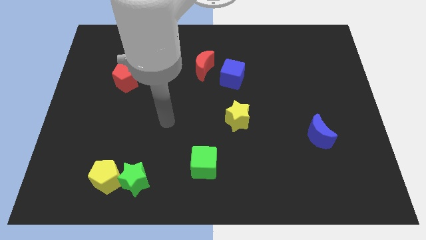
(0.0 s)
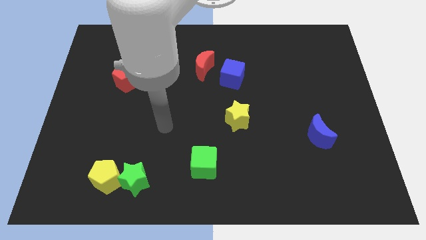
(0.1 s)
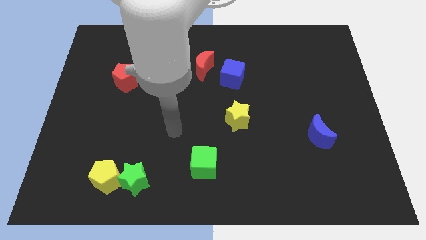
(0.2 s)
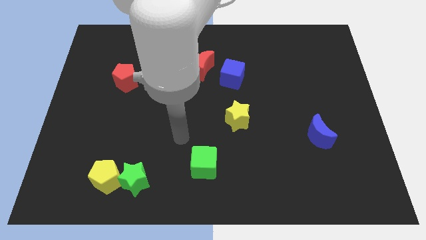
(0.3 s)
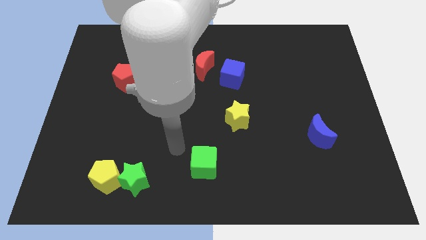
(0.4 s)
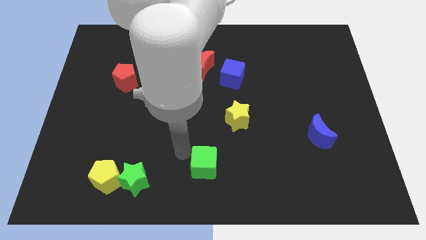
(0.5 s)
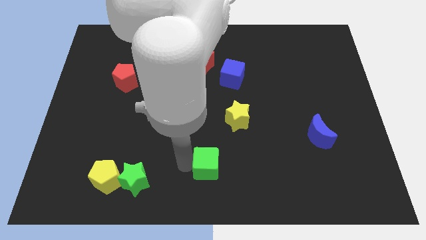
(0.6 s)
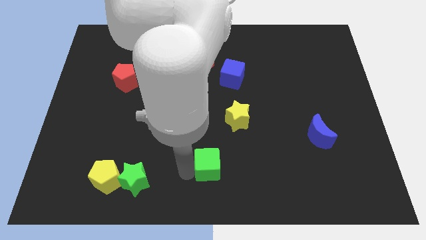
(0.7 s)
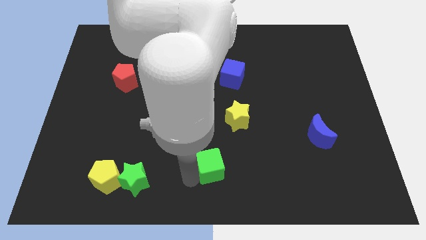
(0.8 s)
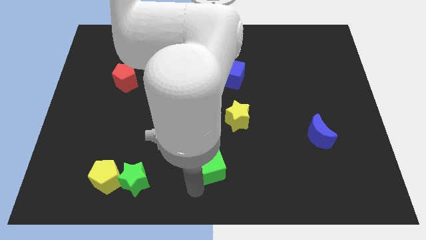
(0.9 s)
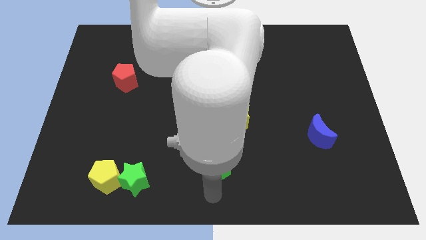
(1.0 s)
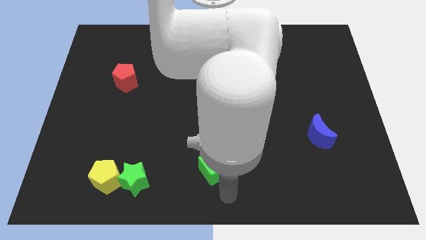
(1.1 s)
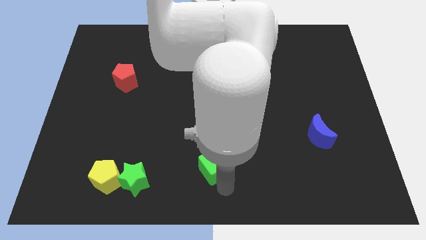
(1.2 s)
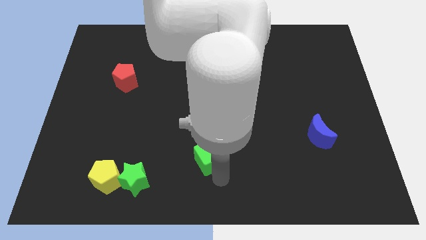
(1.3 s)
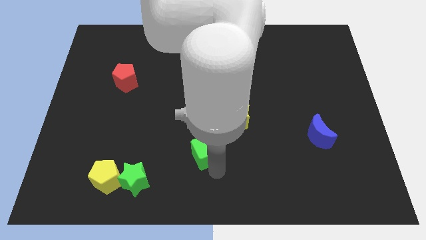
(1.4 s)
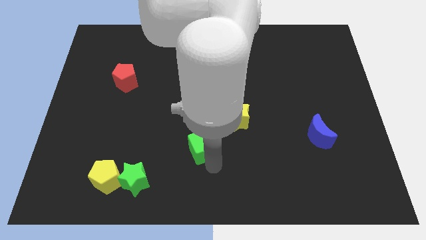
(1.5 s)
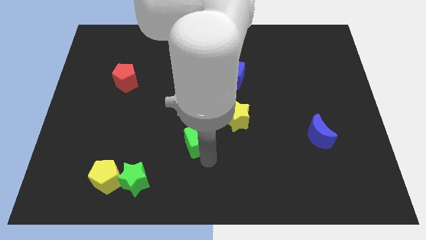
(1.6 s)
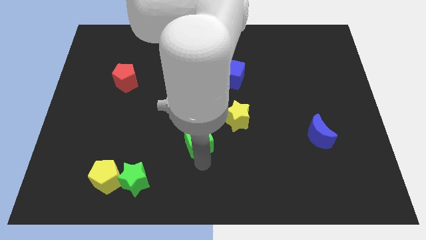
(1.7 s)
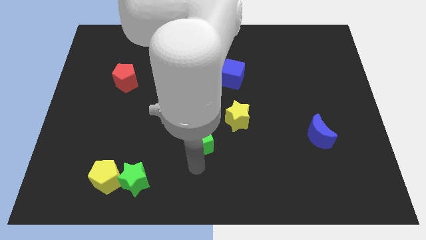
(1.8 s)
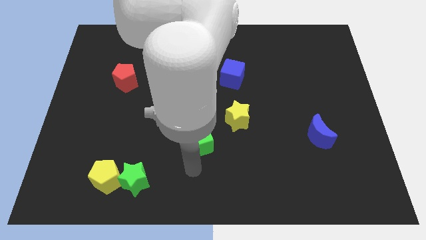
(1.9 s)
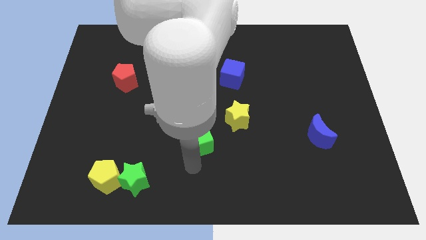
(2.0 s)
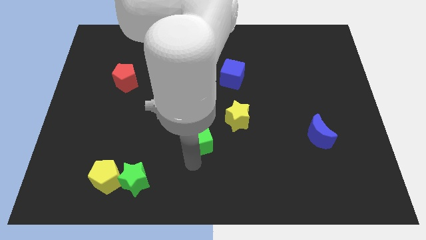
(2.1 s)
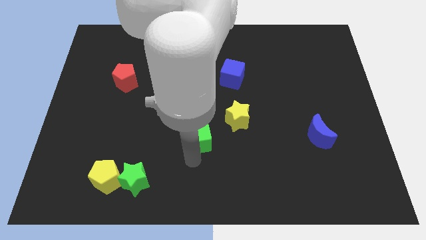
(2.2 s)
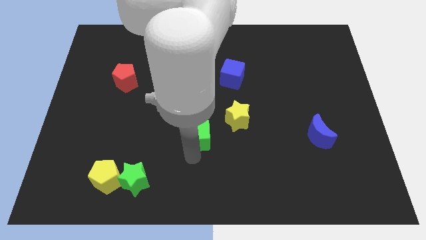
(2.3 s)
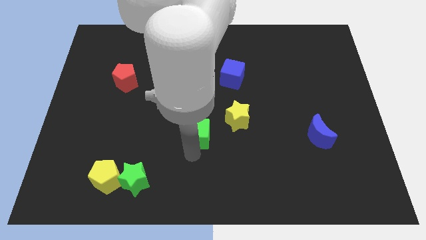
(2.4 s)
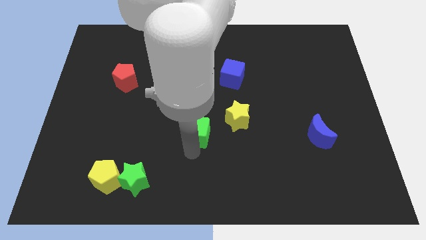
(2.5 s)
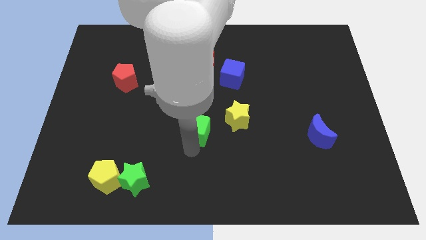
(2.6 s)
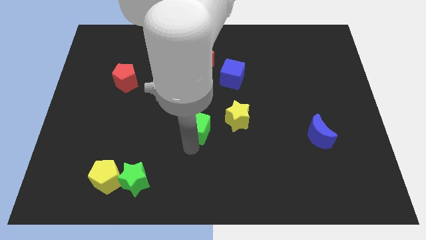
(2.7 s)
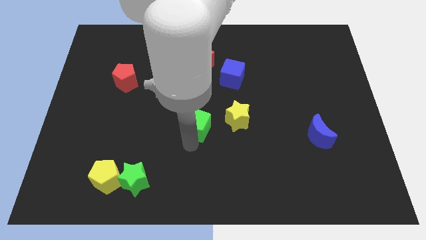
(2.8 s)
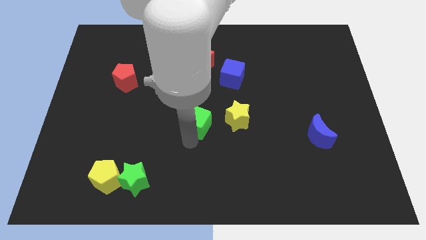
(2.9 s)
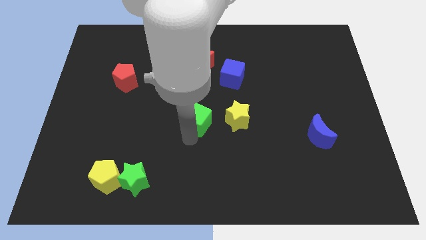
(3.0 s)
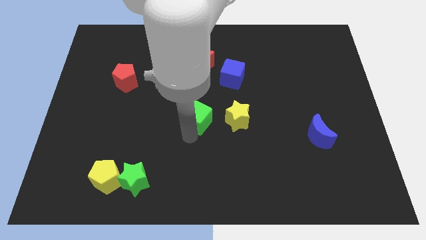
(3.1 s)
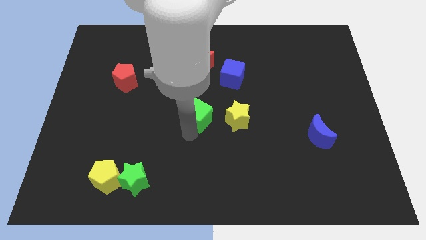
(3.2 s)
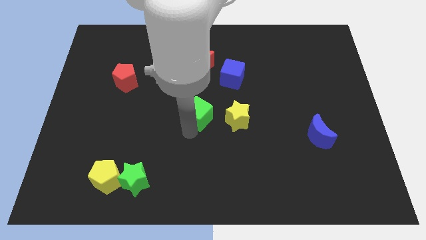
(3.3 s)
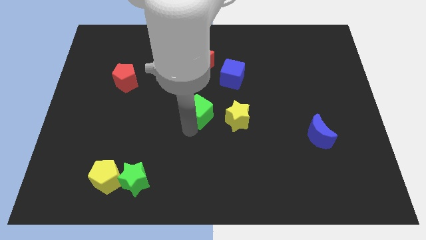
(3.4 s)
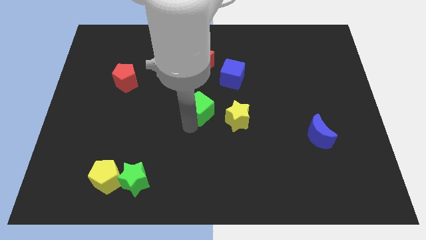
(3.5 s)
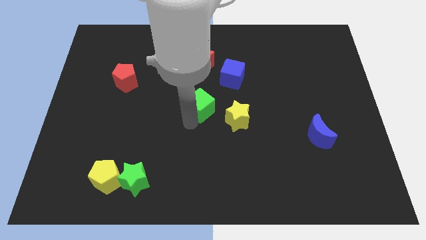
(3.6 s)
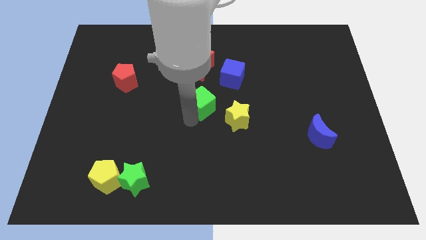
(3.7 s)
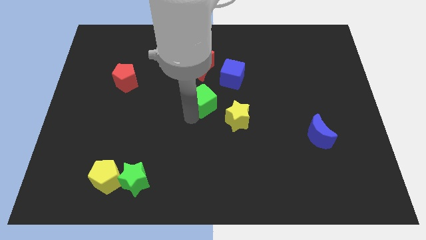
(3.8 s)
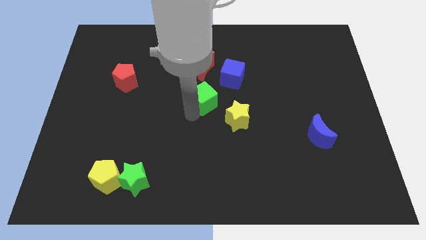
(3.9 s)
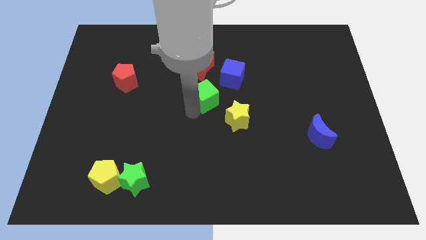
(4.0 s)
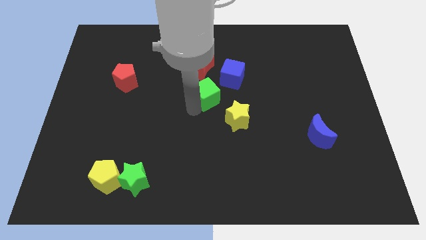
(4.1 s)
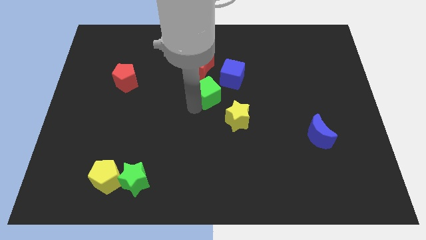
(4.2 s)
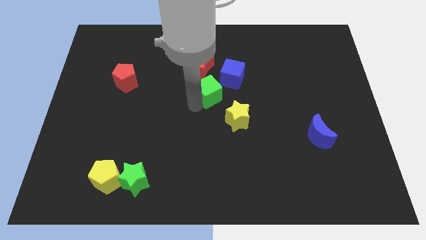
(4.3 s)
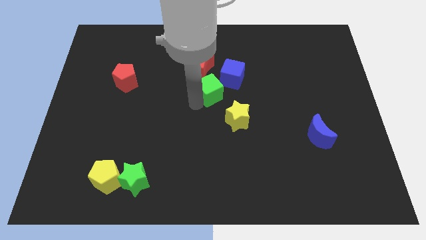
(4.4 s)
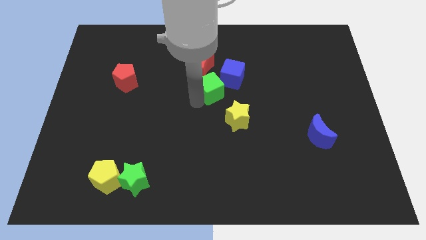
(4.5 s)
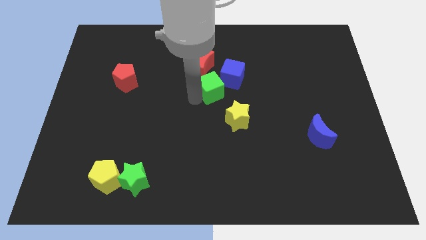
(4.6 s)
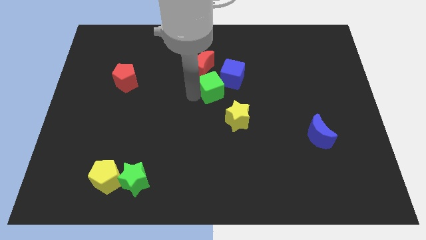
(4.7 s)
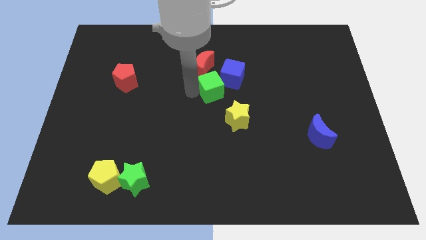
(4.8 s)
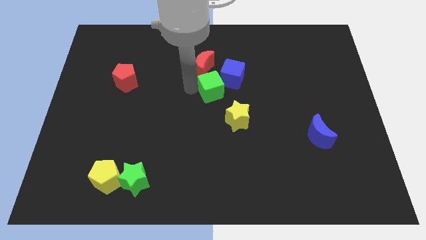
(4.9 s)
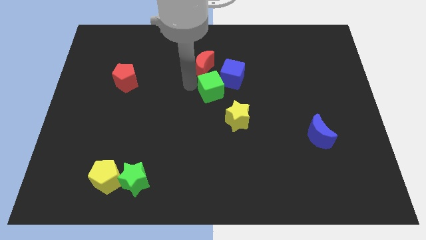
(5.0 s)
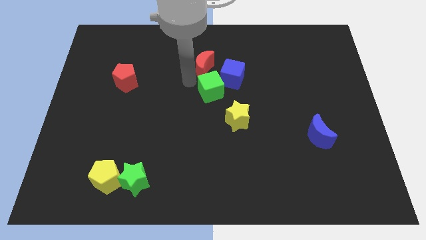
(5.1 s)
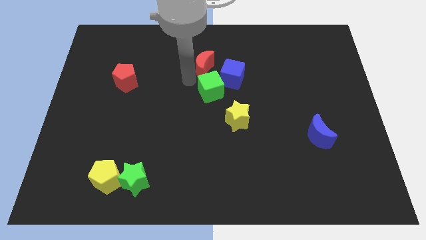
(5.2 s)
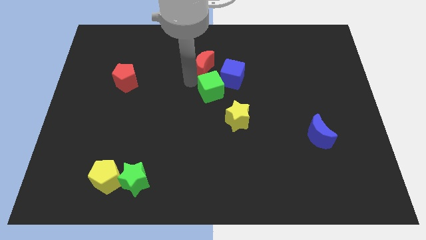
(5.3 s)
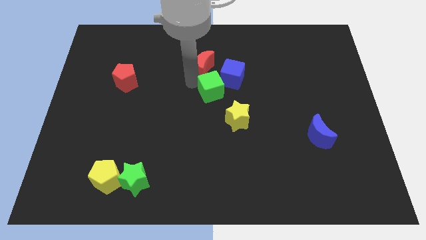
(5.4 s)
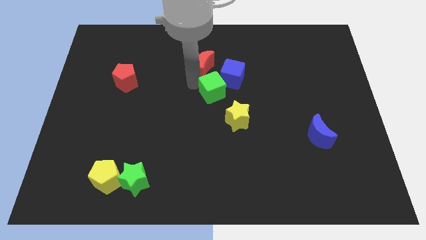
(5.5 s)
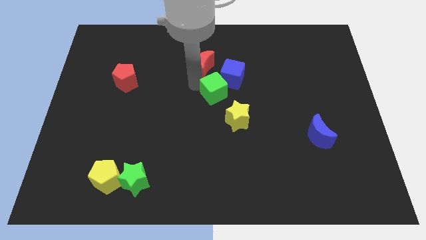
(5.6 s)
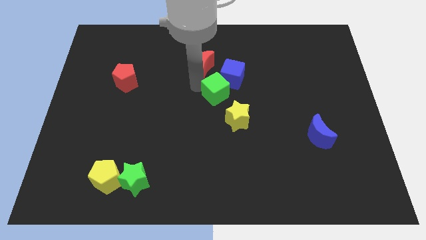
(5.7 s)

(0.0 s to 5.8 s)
move the green cube to the blue cube

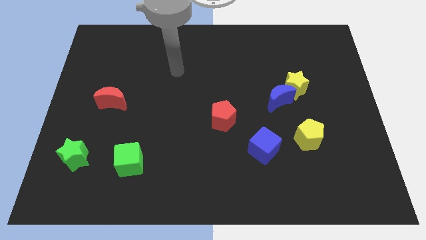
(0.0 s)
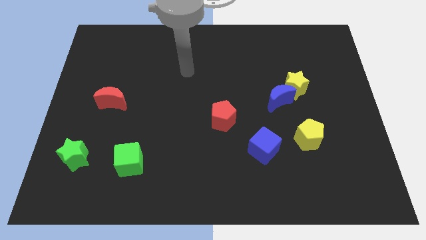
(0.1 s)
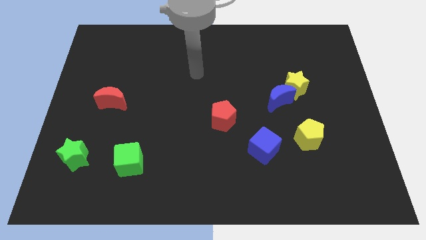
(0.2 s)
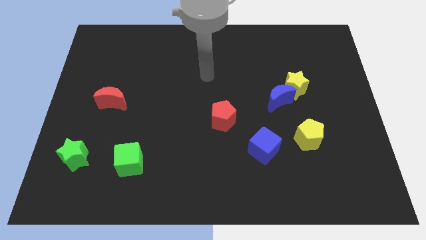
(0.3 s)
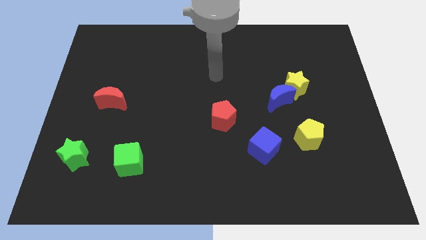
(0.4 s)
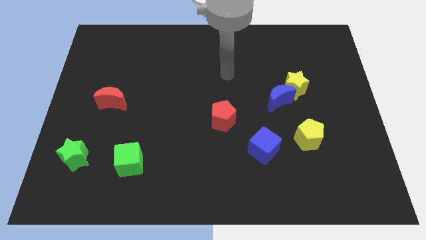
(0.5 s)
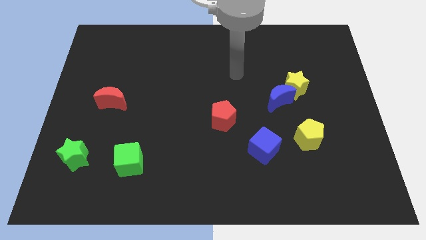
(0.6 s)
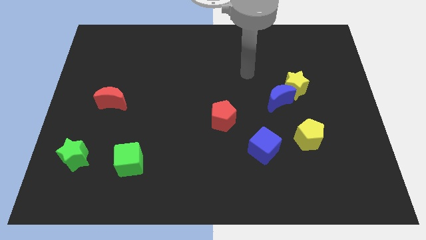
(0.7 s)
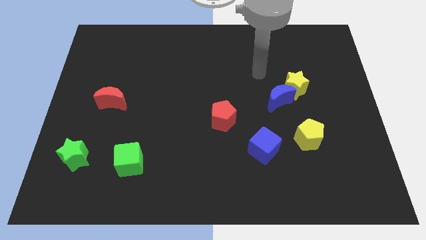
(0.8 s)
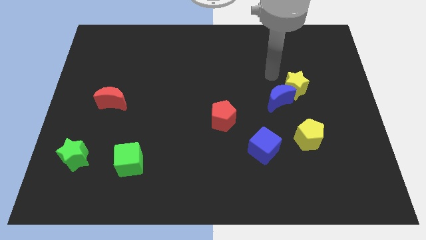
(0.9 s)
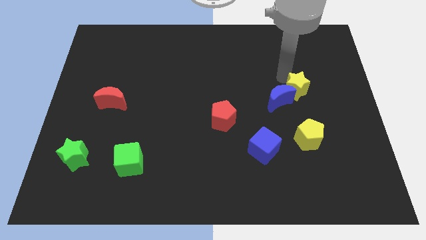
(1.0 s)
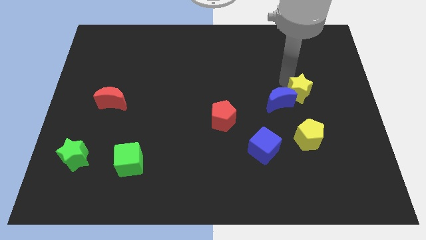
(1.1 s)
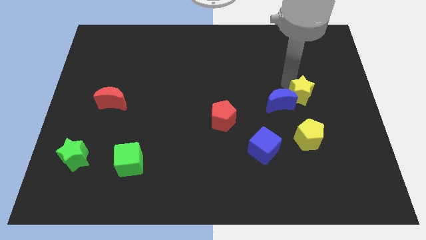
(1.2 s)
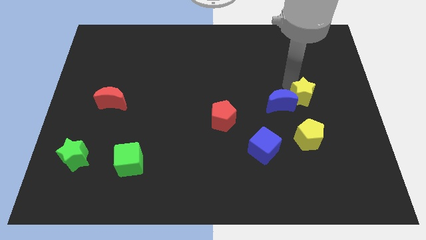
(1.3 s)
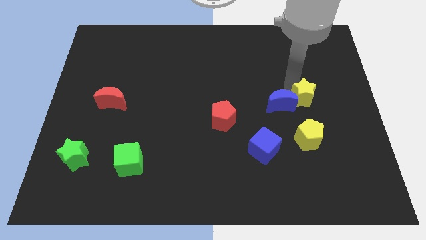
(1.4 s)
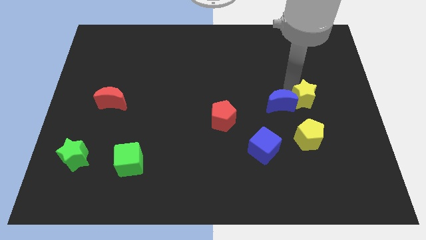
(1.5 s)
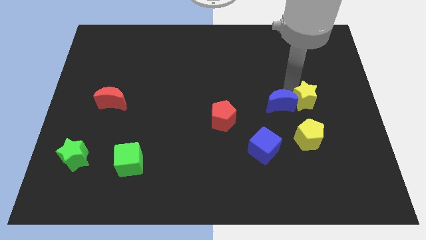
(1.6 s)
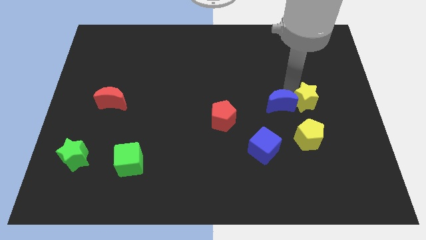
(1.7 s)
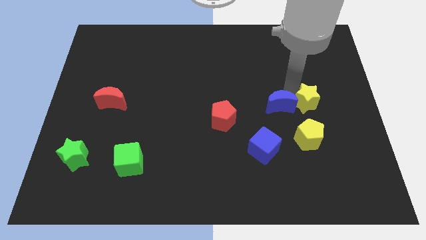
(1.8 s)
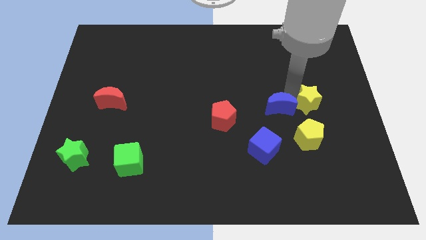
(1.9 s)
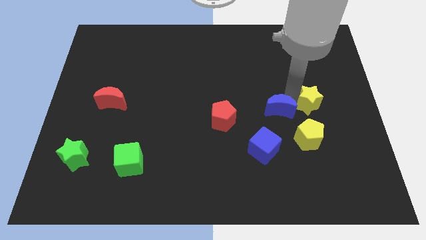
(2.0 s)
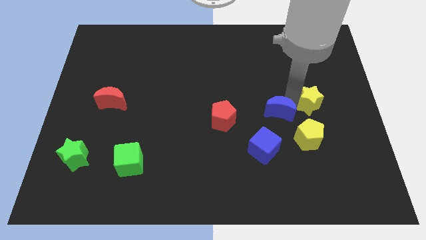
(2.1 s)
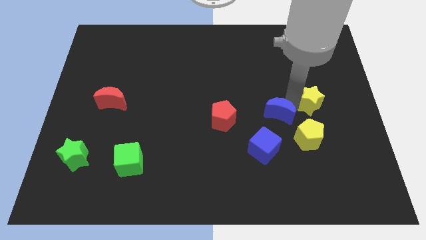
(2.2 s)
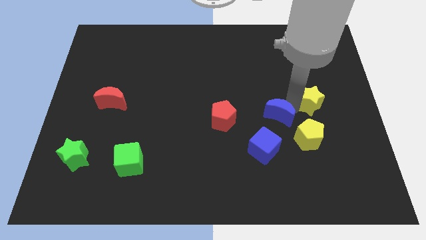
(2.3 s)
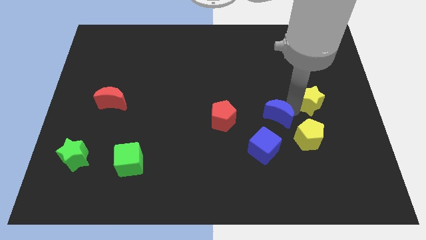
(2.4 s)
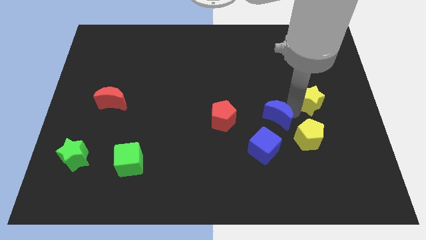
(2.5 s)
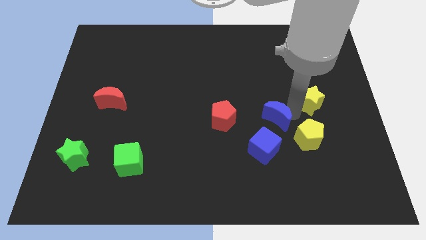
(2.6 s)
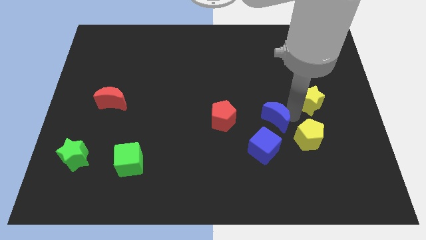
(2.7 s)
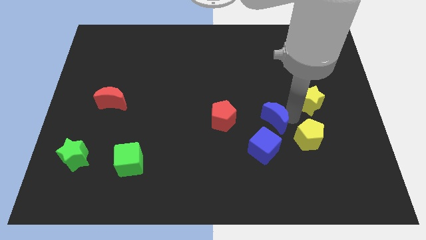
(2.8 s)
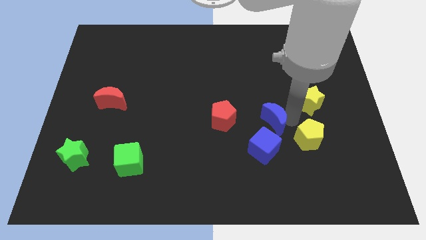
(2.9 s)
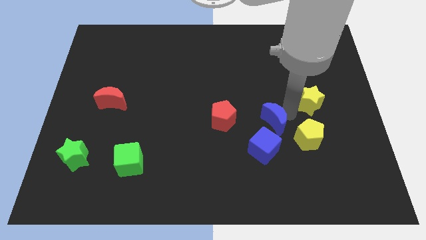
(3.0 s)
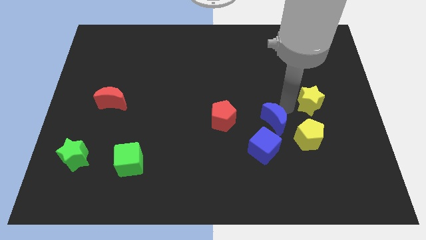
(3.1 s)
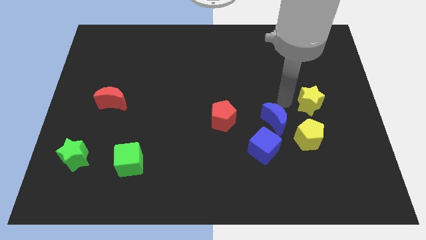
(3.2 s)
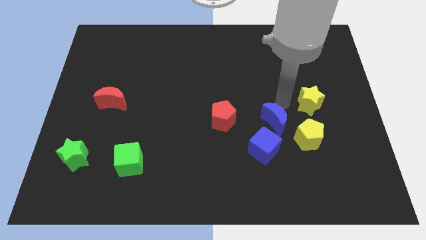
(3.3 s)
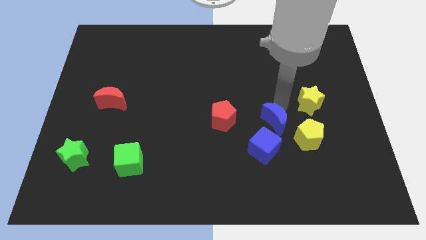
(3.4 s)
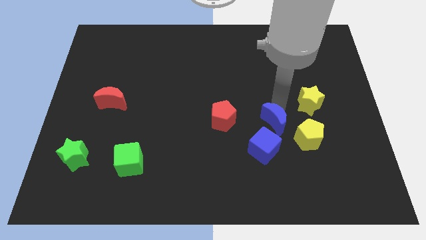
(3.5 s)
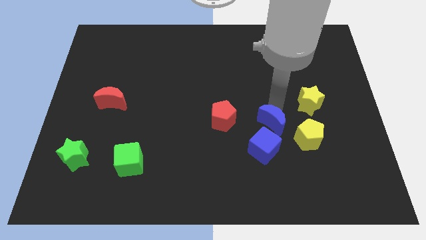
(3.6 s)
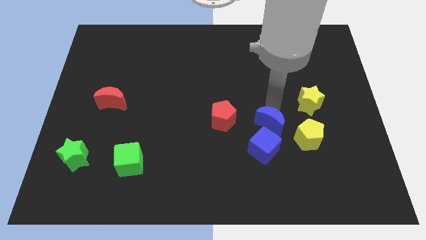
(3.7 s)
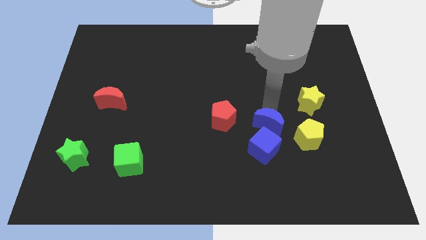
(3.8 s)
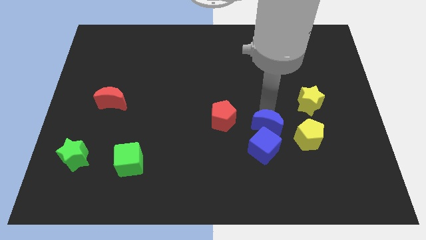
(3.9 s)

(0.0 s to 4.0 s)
push the blue moon close to the blue cube
